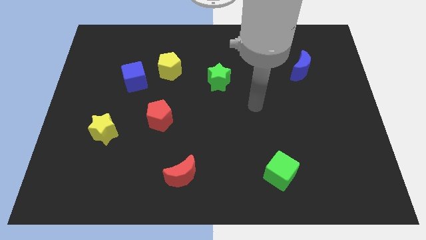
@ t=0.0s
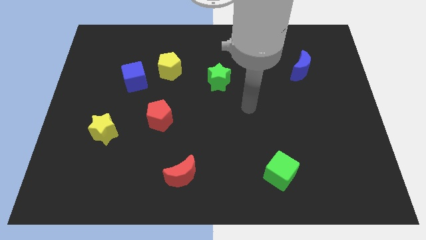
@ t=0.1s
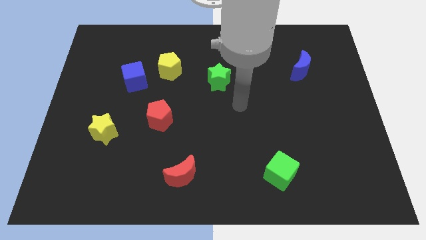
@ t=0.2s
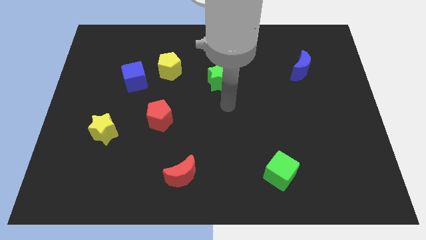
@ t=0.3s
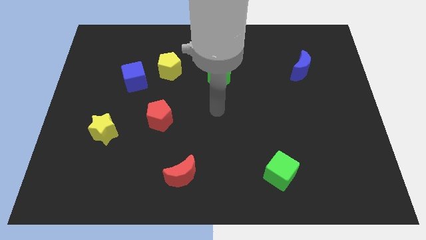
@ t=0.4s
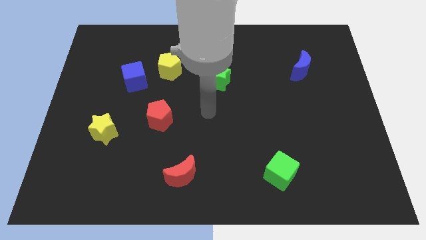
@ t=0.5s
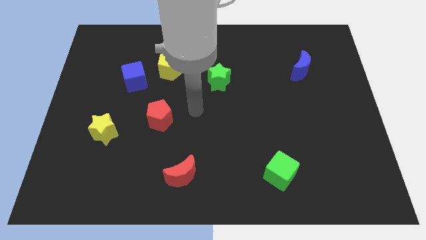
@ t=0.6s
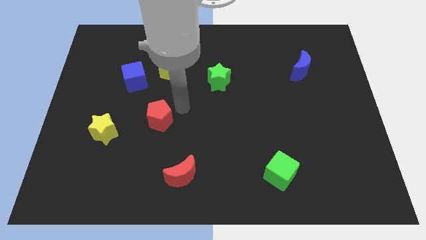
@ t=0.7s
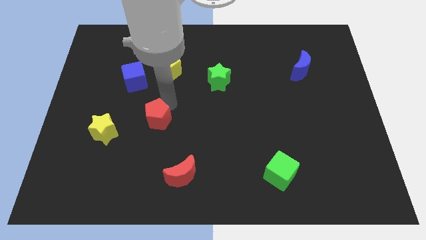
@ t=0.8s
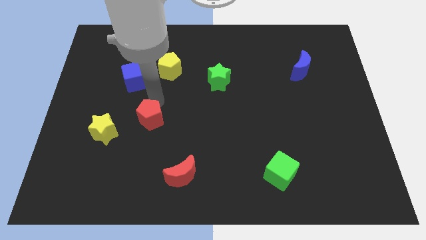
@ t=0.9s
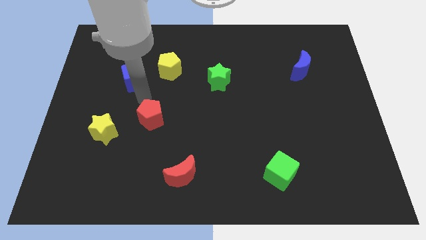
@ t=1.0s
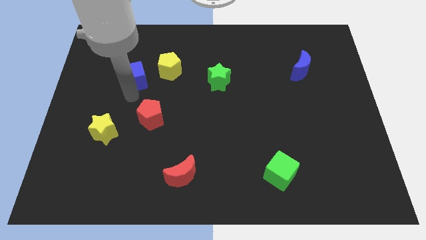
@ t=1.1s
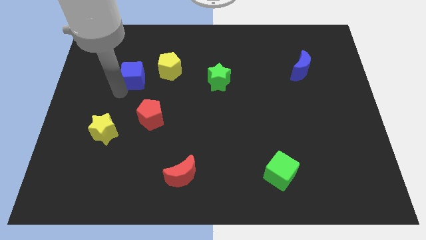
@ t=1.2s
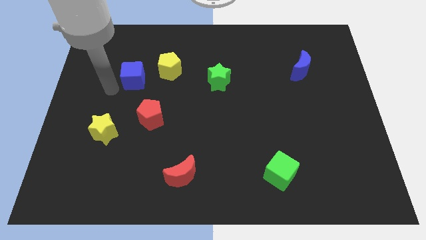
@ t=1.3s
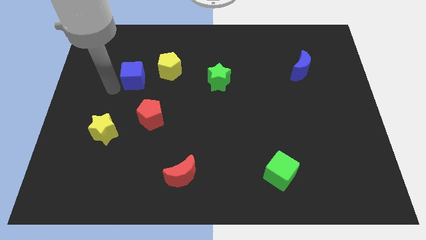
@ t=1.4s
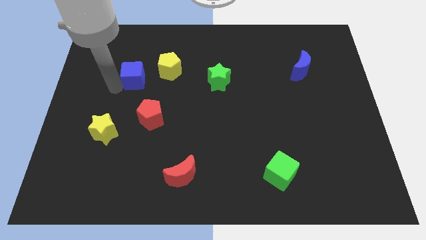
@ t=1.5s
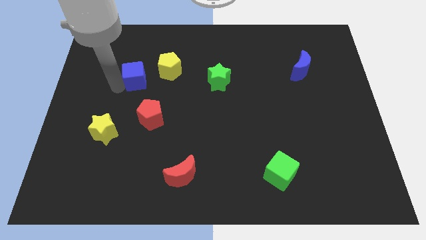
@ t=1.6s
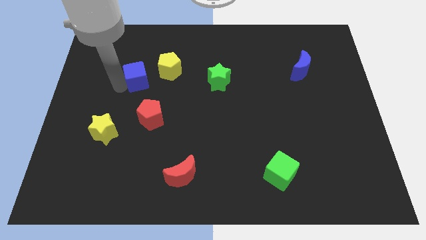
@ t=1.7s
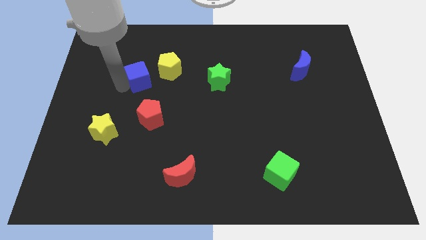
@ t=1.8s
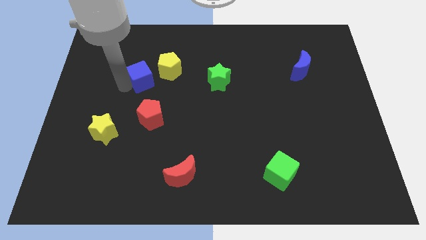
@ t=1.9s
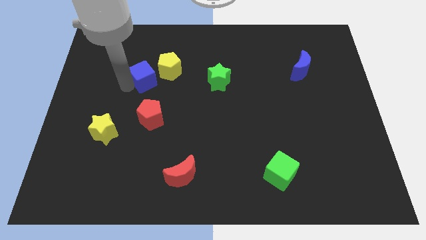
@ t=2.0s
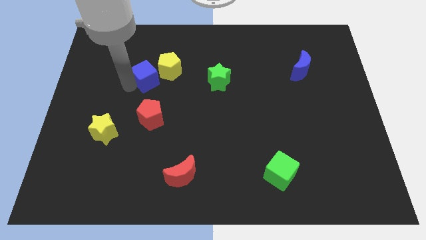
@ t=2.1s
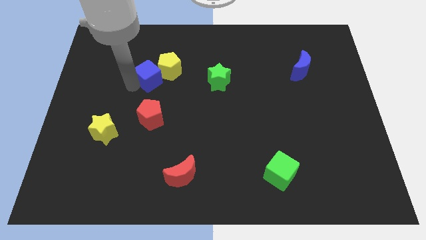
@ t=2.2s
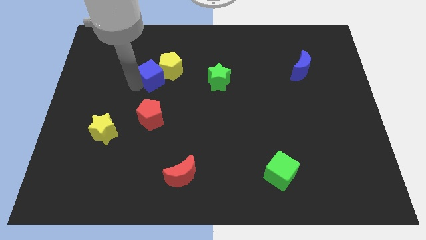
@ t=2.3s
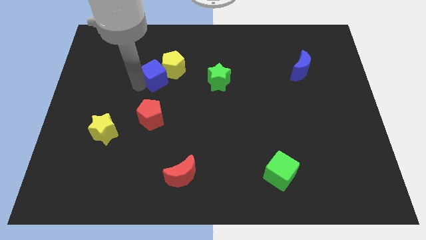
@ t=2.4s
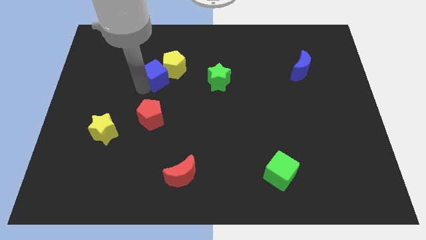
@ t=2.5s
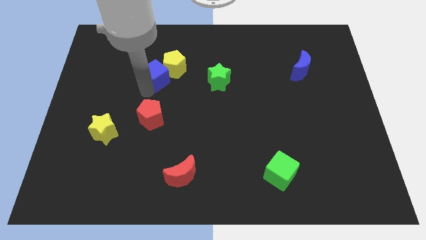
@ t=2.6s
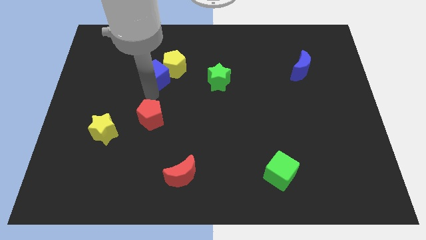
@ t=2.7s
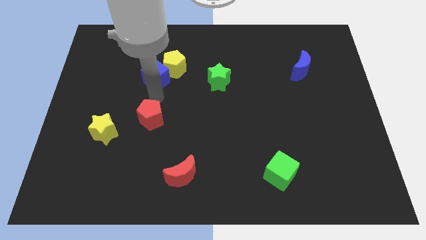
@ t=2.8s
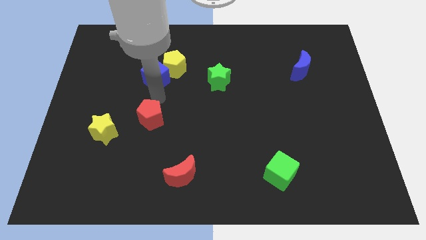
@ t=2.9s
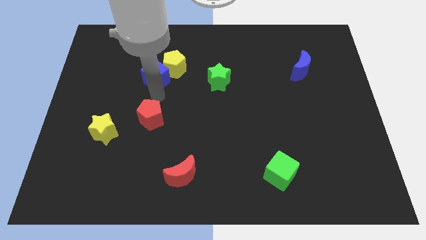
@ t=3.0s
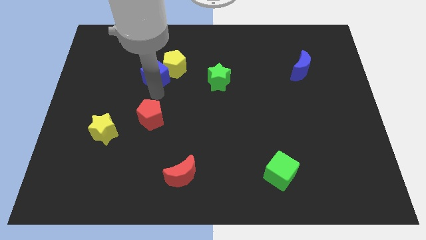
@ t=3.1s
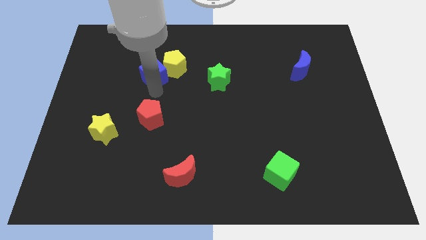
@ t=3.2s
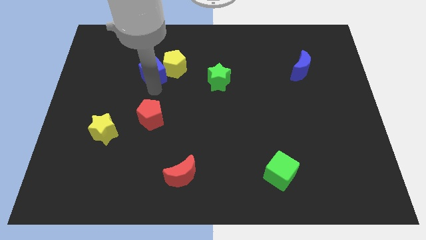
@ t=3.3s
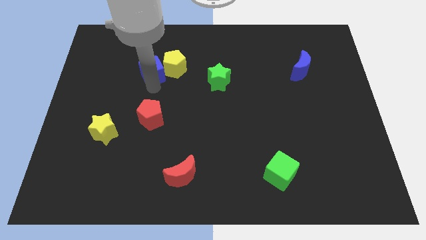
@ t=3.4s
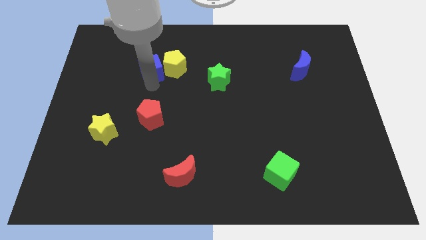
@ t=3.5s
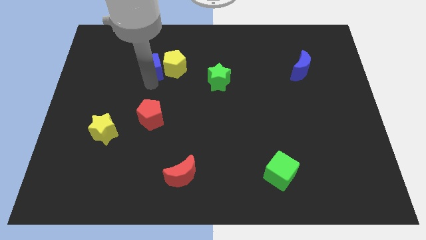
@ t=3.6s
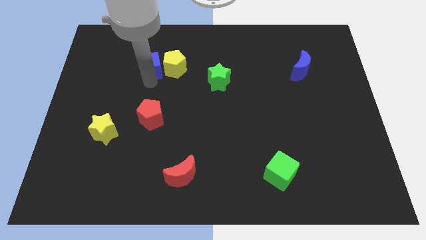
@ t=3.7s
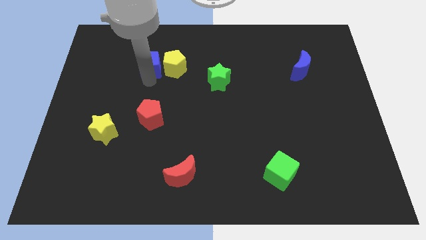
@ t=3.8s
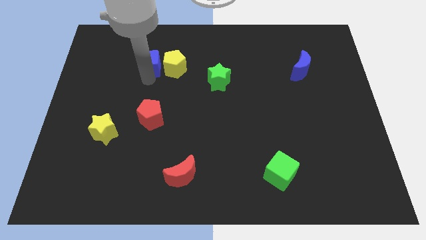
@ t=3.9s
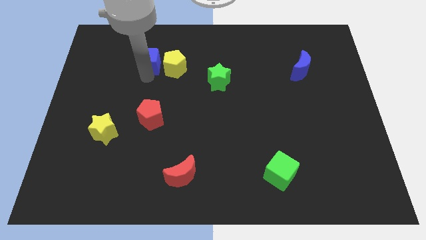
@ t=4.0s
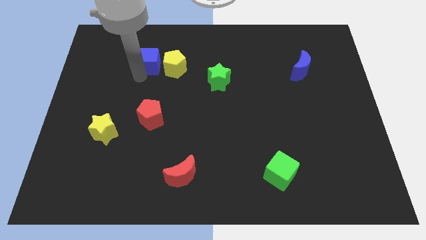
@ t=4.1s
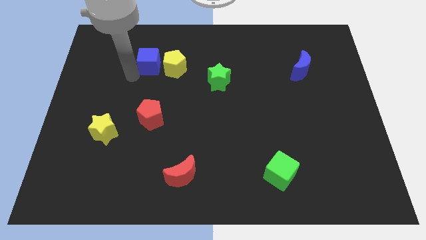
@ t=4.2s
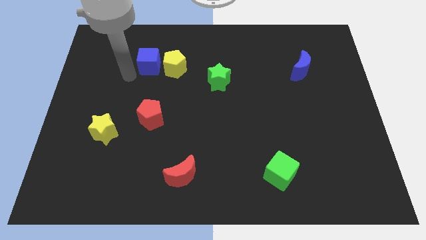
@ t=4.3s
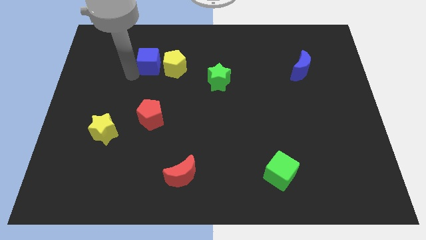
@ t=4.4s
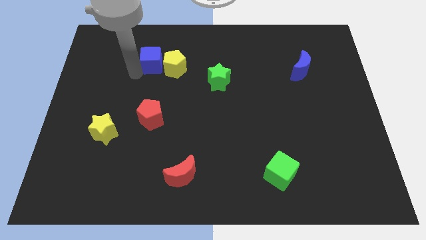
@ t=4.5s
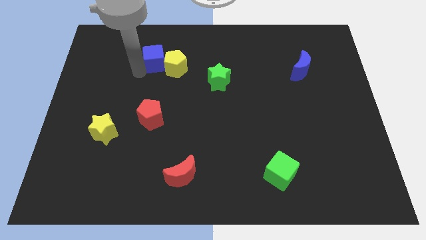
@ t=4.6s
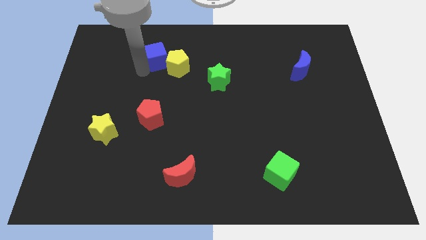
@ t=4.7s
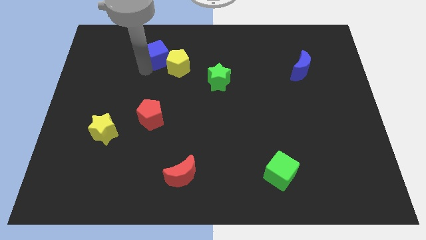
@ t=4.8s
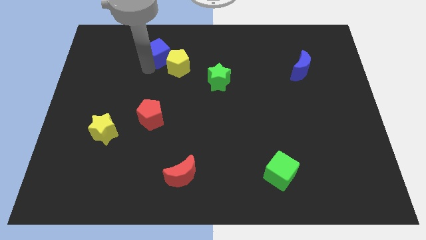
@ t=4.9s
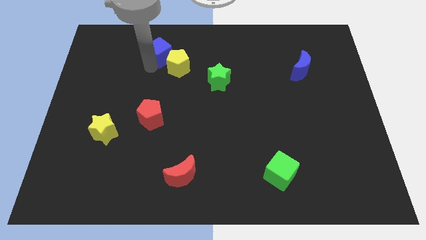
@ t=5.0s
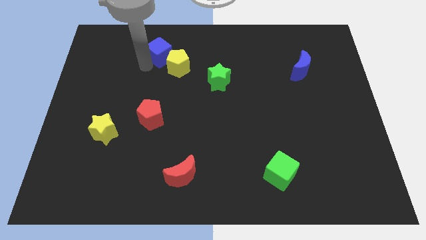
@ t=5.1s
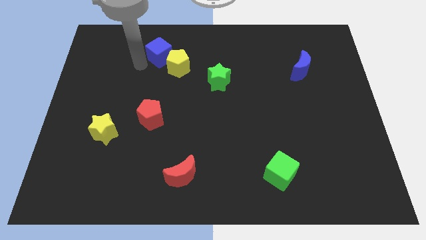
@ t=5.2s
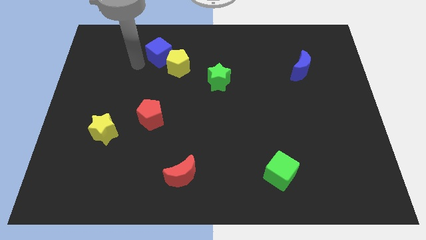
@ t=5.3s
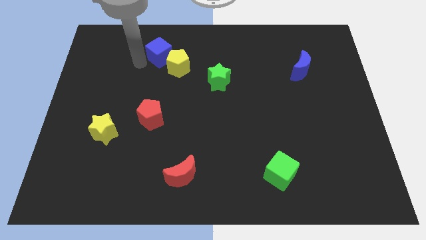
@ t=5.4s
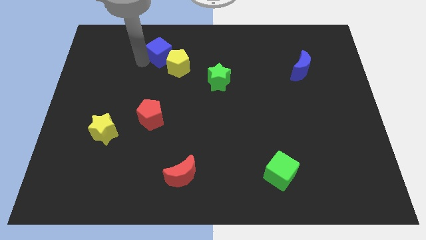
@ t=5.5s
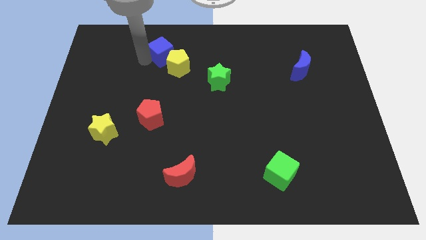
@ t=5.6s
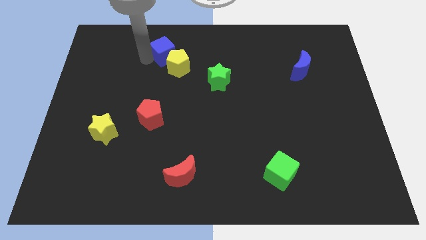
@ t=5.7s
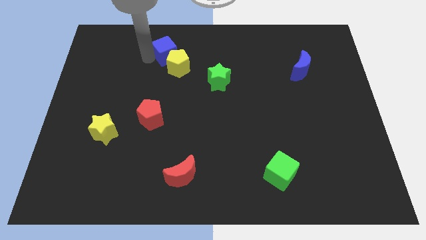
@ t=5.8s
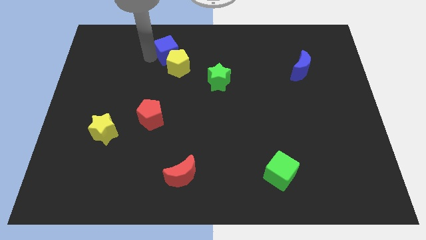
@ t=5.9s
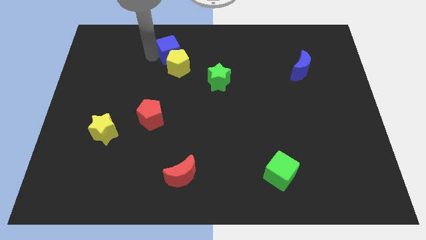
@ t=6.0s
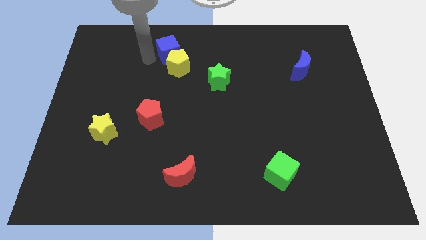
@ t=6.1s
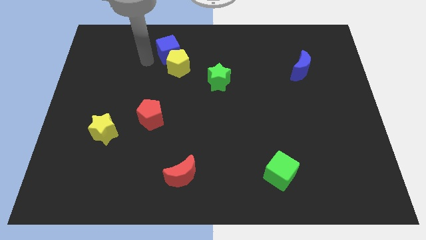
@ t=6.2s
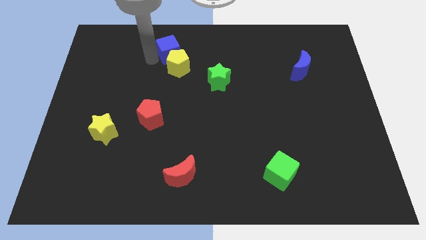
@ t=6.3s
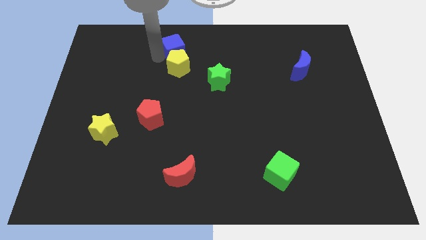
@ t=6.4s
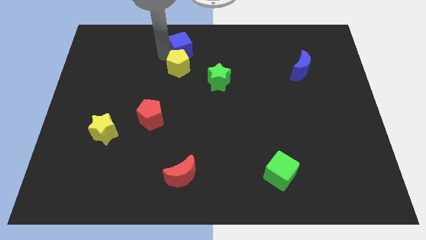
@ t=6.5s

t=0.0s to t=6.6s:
push the blue cube to the top side
